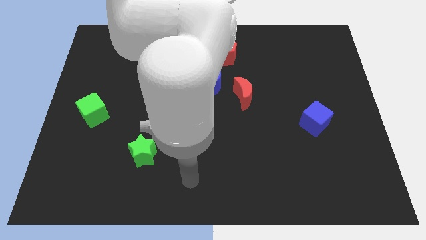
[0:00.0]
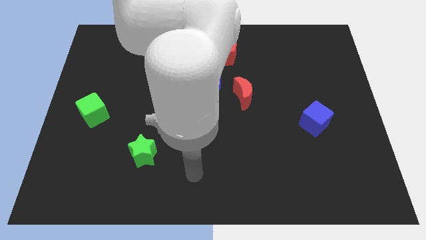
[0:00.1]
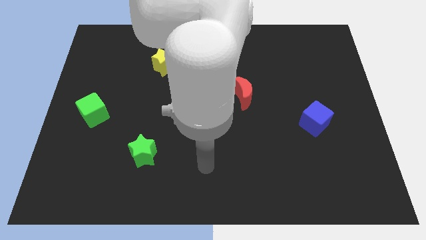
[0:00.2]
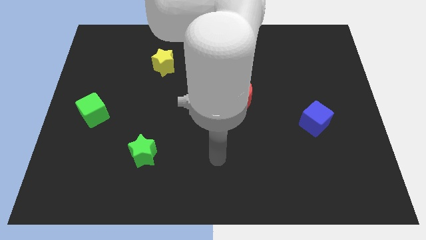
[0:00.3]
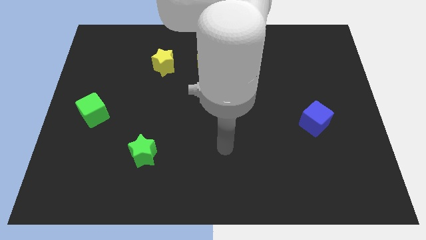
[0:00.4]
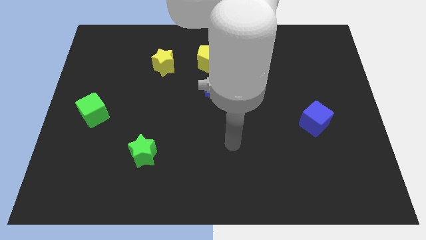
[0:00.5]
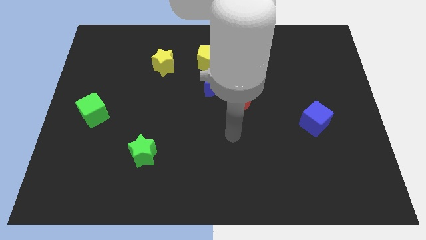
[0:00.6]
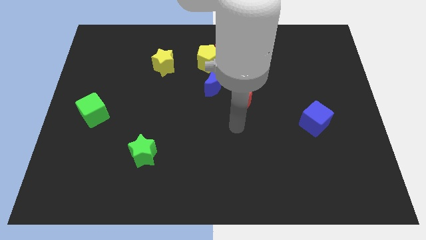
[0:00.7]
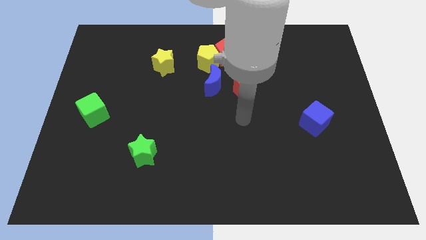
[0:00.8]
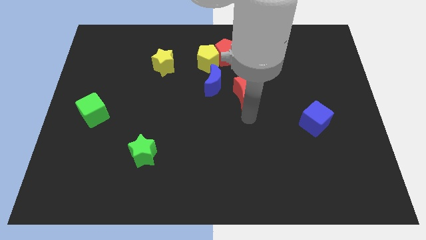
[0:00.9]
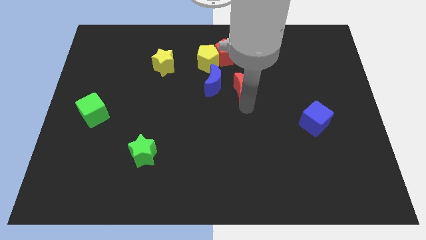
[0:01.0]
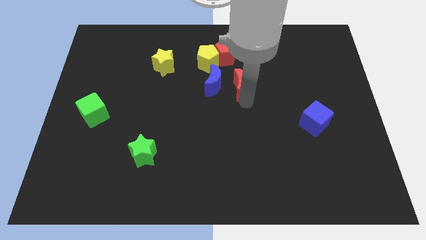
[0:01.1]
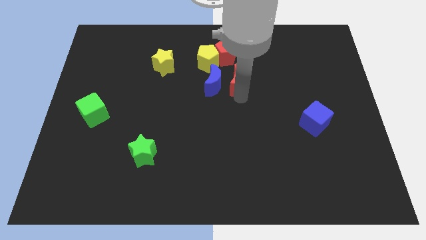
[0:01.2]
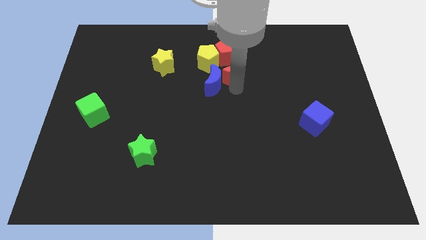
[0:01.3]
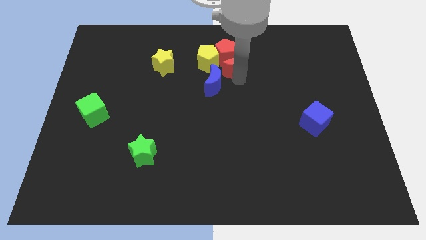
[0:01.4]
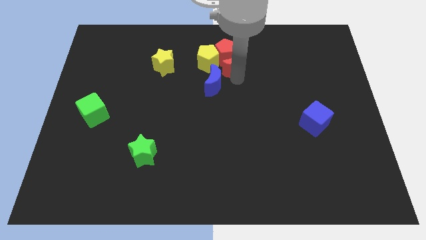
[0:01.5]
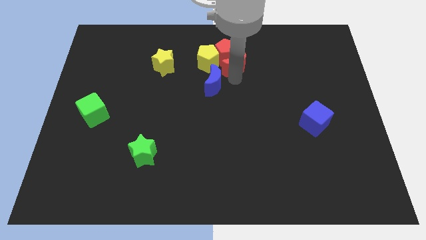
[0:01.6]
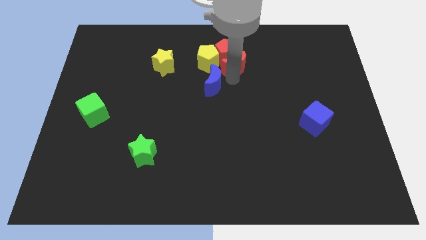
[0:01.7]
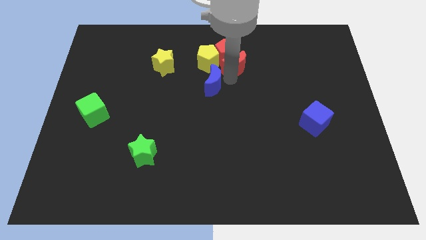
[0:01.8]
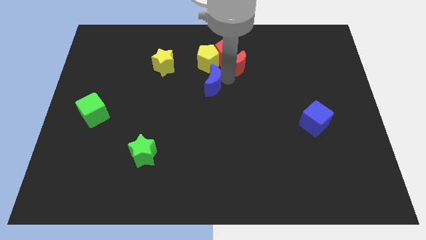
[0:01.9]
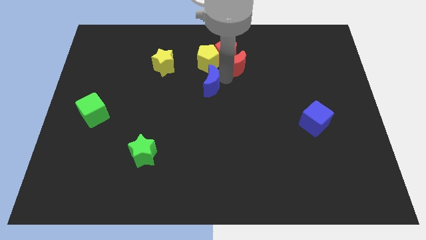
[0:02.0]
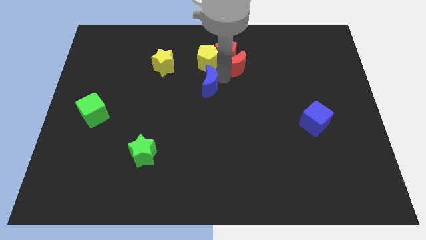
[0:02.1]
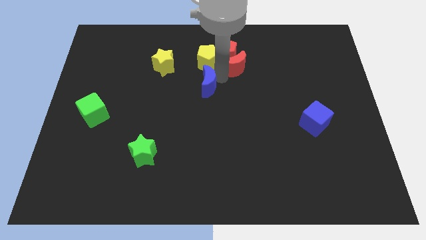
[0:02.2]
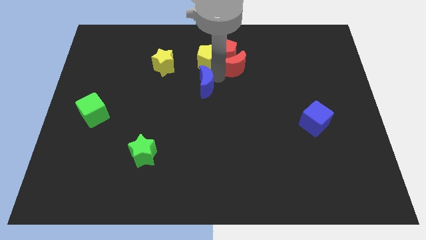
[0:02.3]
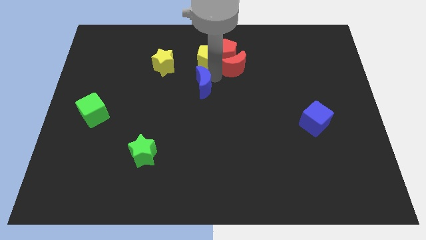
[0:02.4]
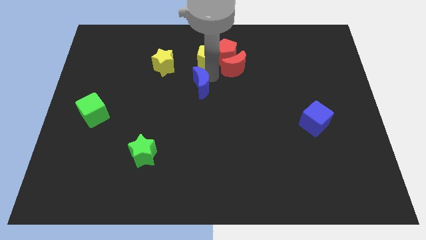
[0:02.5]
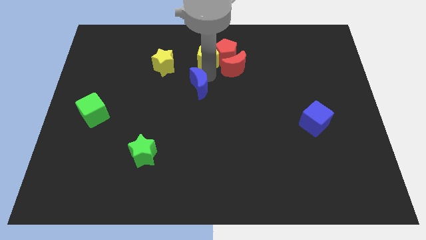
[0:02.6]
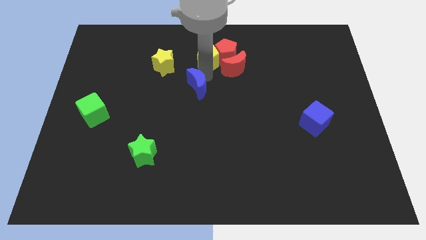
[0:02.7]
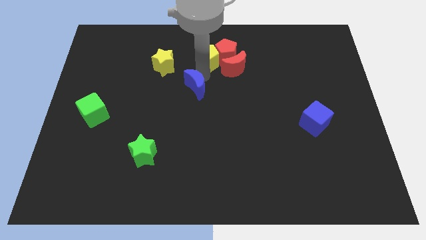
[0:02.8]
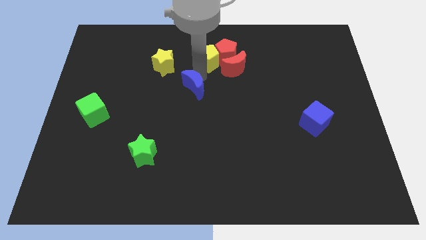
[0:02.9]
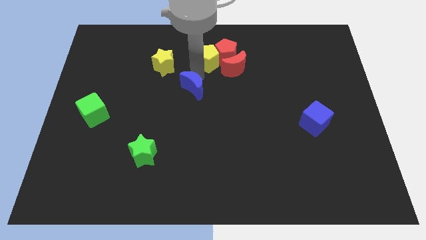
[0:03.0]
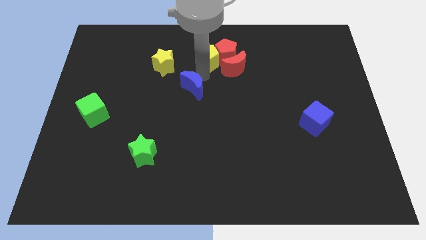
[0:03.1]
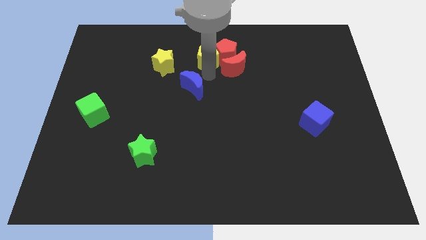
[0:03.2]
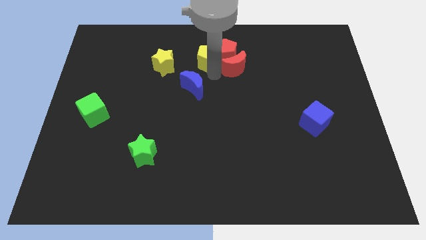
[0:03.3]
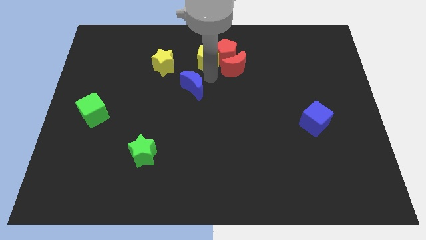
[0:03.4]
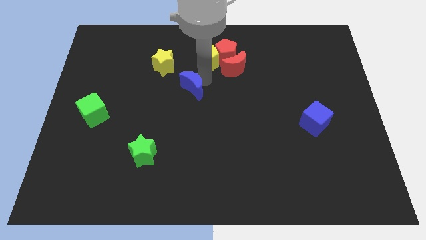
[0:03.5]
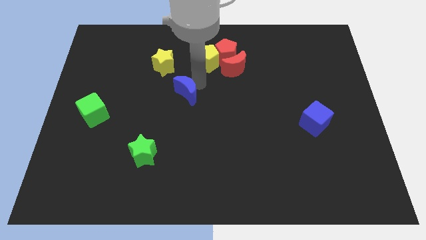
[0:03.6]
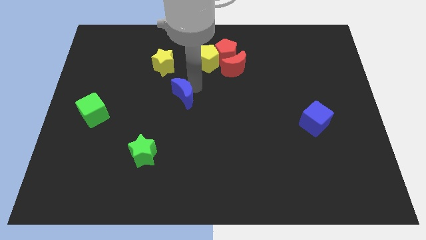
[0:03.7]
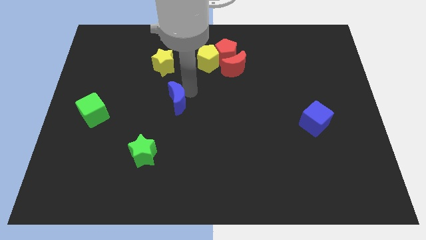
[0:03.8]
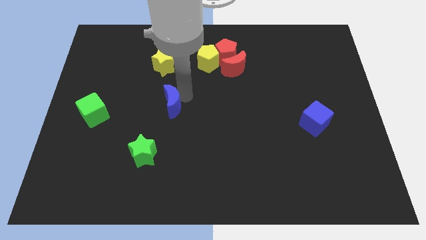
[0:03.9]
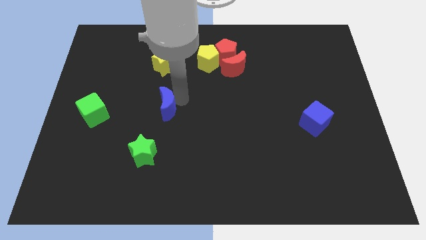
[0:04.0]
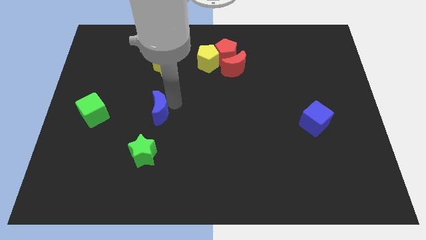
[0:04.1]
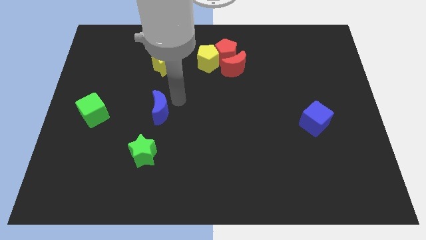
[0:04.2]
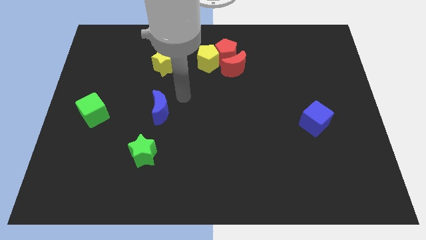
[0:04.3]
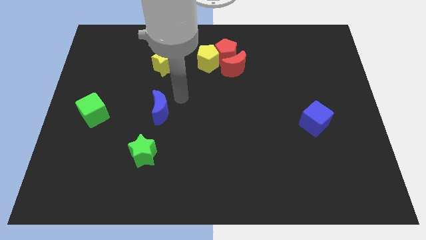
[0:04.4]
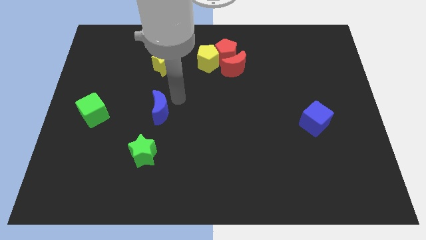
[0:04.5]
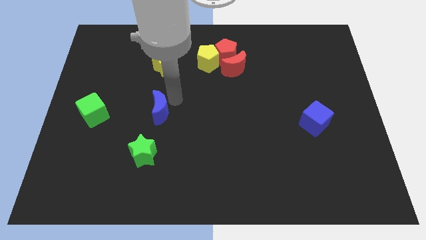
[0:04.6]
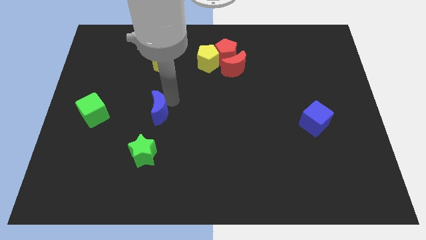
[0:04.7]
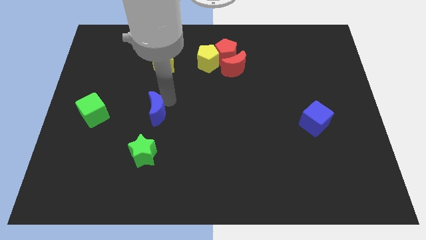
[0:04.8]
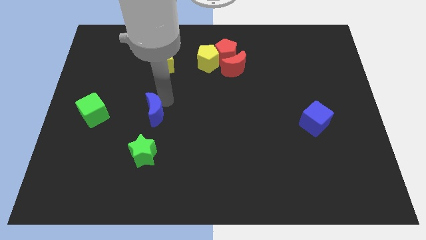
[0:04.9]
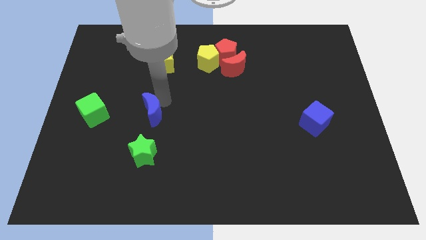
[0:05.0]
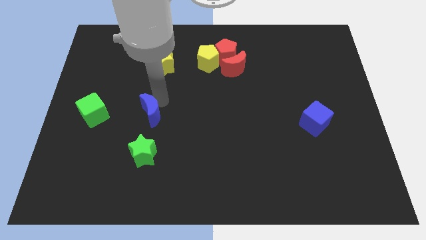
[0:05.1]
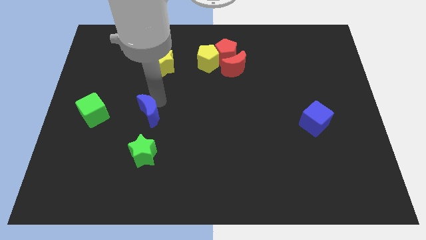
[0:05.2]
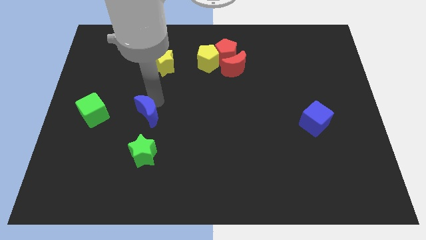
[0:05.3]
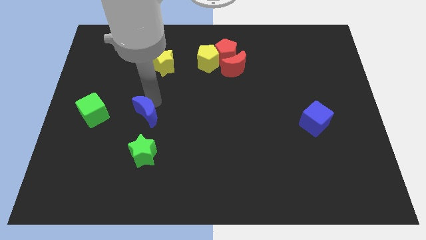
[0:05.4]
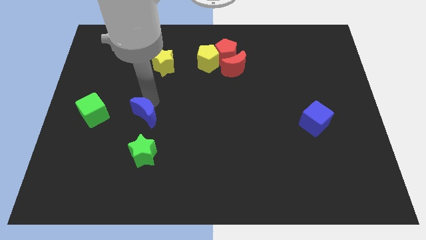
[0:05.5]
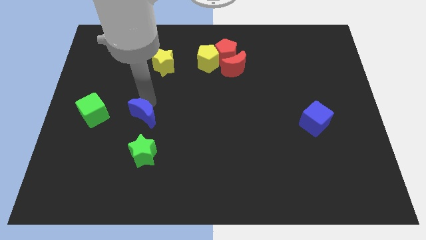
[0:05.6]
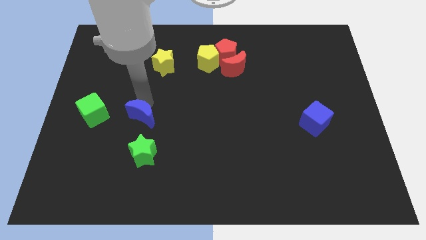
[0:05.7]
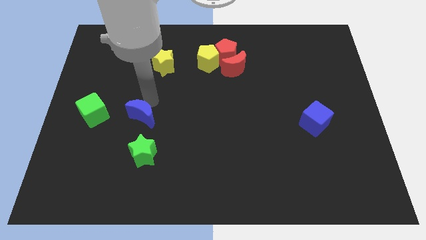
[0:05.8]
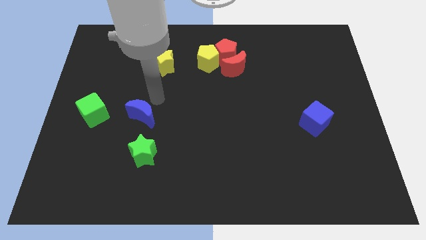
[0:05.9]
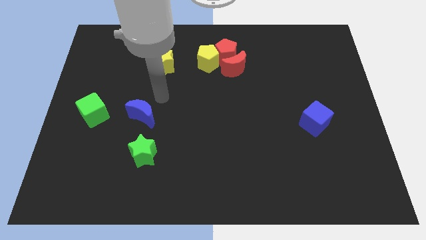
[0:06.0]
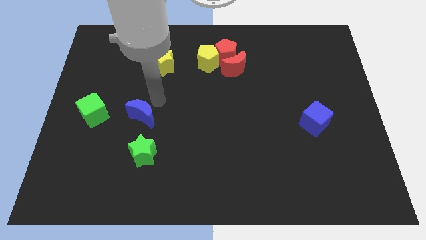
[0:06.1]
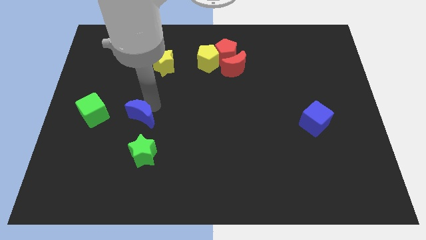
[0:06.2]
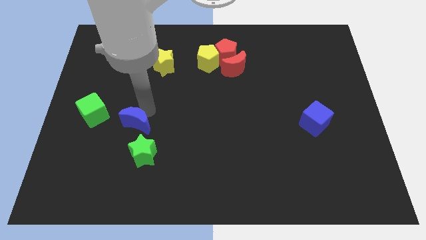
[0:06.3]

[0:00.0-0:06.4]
put the blue moon diagonally up and to the left of the green star

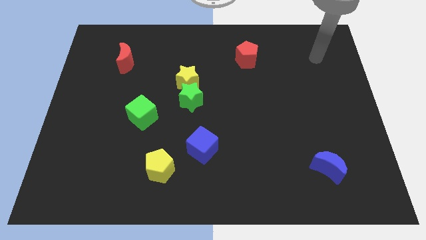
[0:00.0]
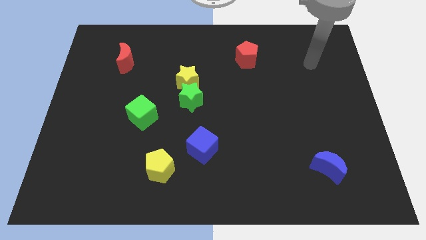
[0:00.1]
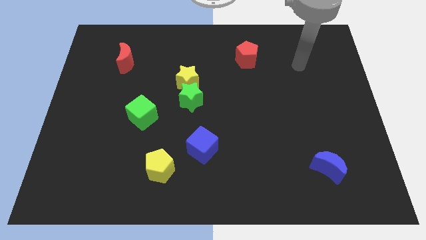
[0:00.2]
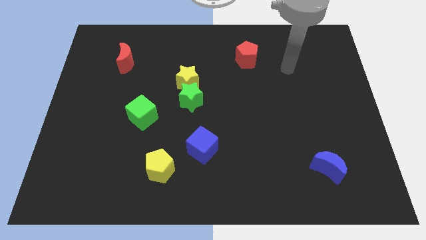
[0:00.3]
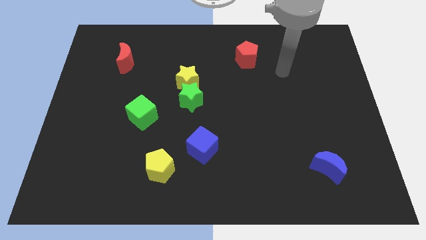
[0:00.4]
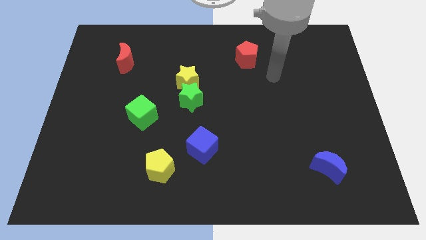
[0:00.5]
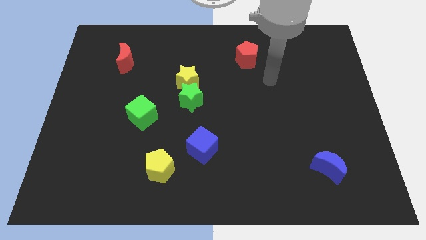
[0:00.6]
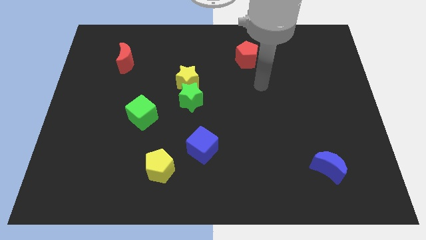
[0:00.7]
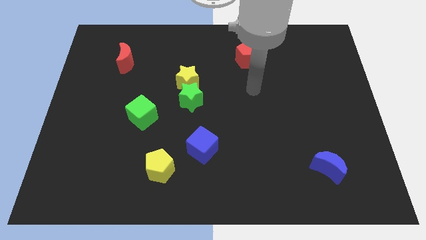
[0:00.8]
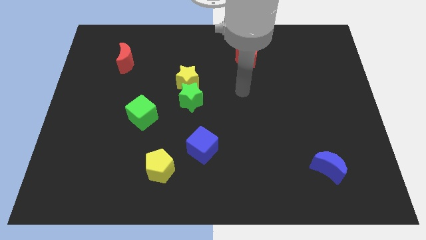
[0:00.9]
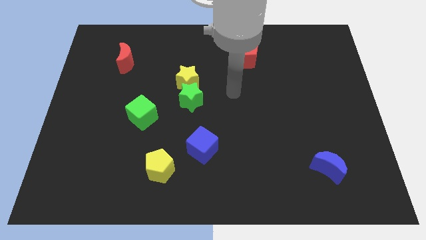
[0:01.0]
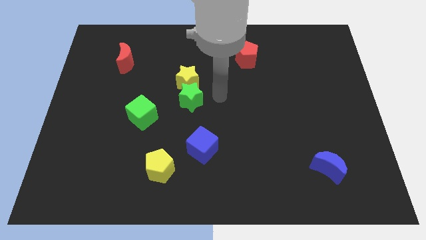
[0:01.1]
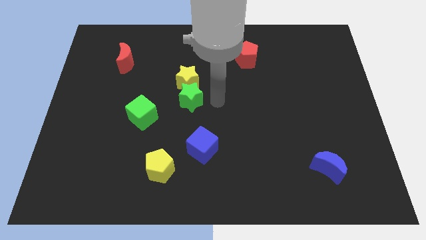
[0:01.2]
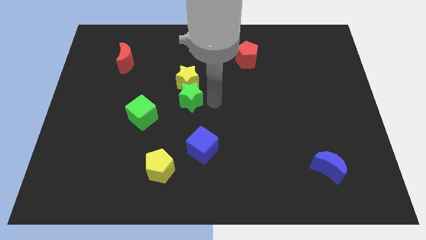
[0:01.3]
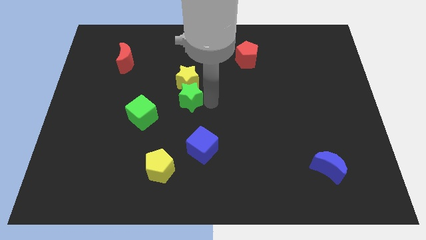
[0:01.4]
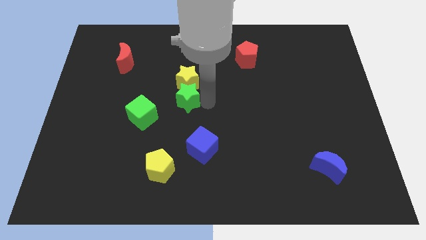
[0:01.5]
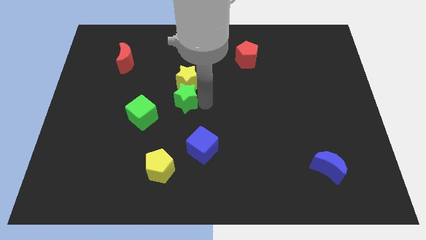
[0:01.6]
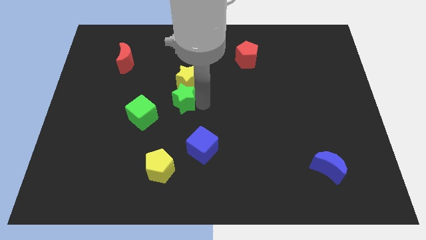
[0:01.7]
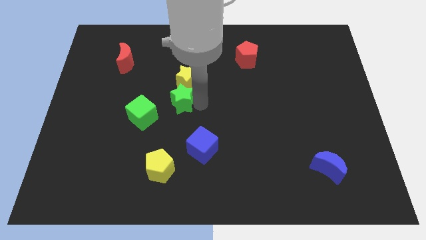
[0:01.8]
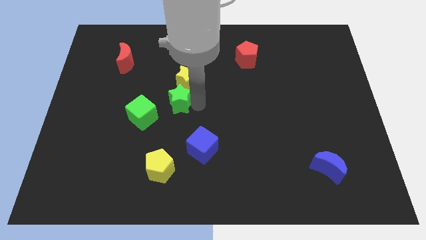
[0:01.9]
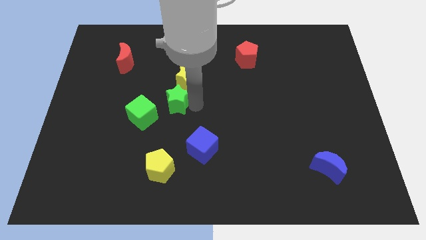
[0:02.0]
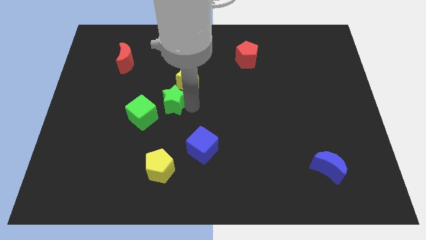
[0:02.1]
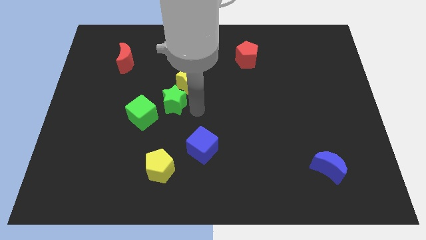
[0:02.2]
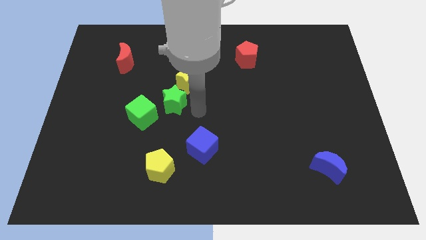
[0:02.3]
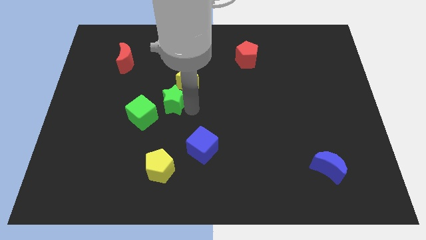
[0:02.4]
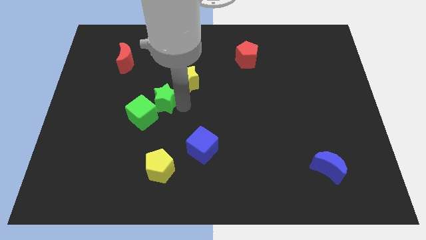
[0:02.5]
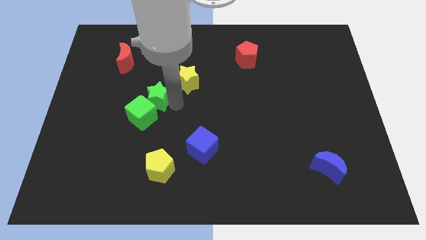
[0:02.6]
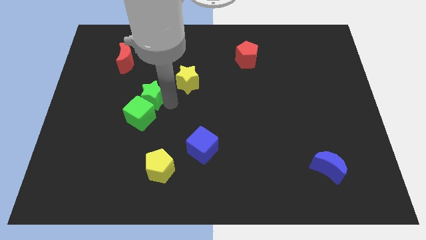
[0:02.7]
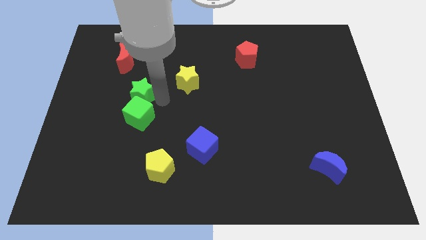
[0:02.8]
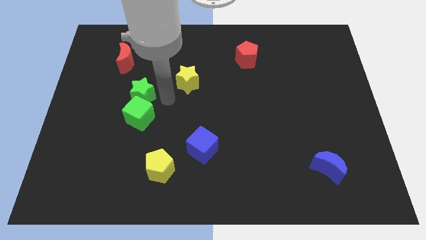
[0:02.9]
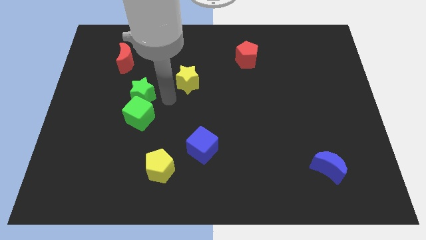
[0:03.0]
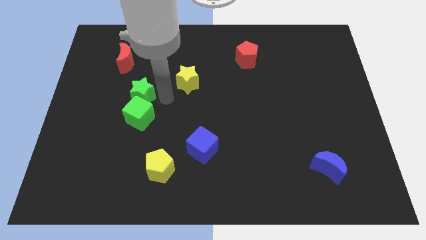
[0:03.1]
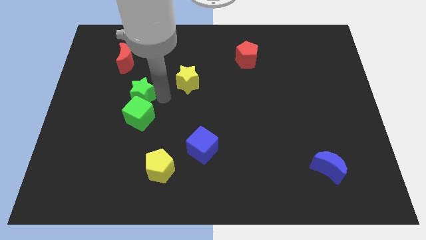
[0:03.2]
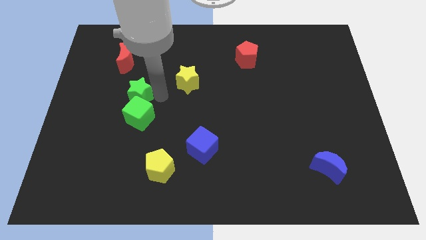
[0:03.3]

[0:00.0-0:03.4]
put the green star below the red moon
